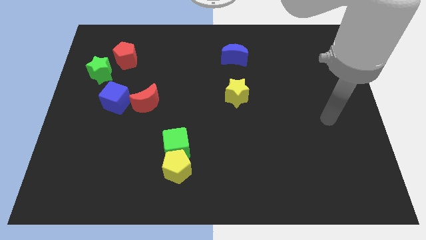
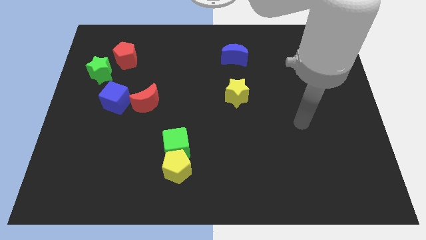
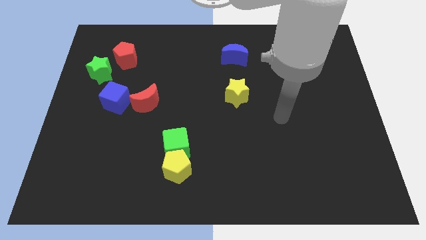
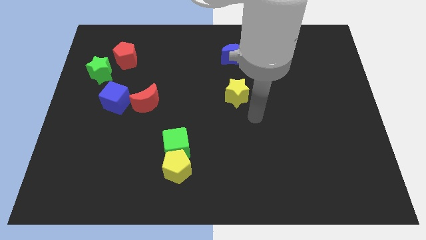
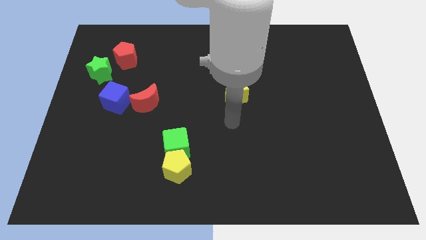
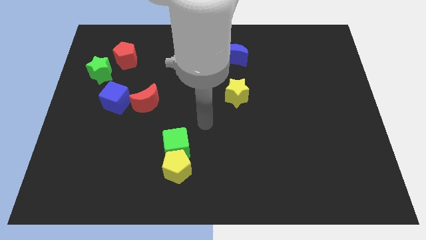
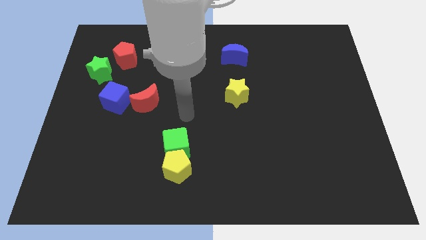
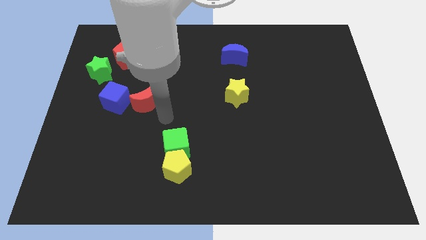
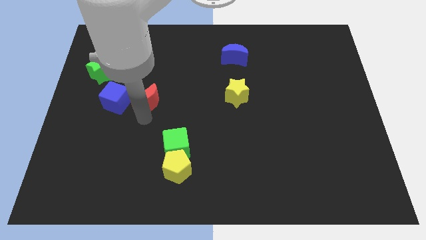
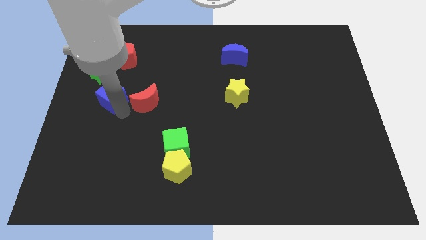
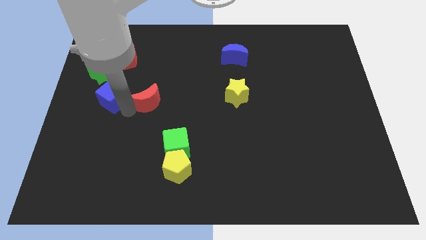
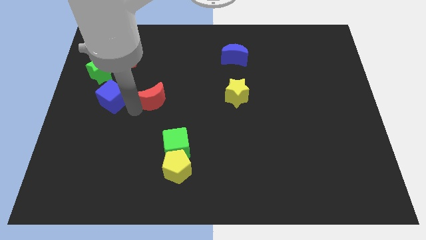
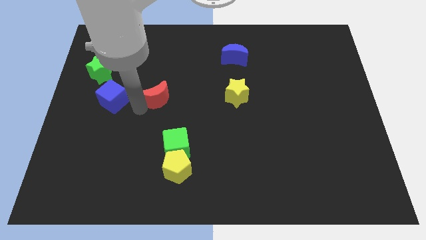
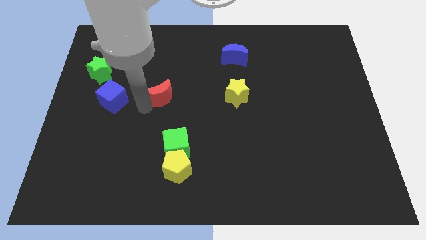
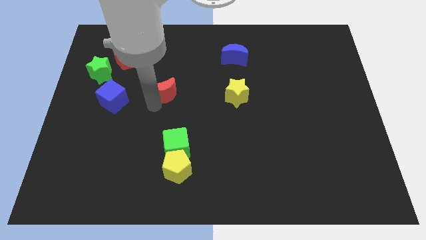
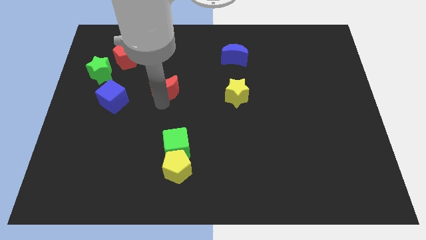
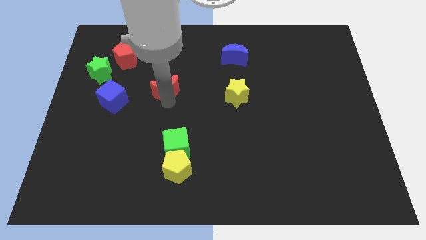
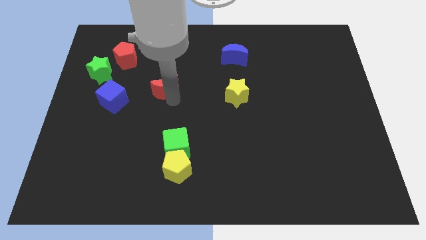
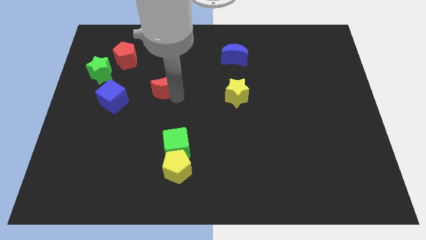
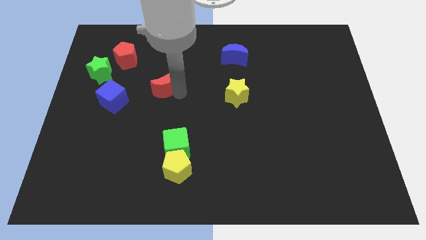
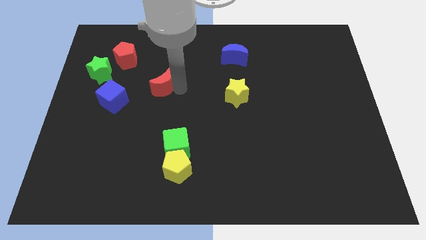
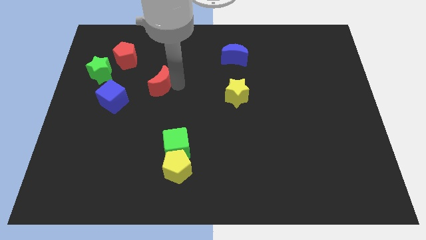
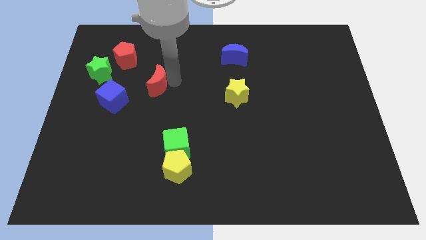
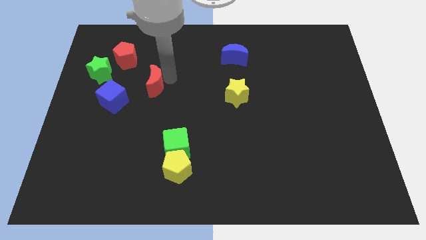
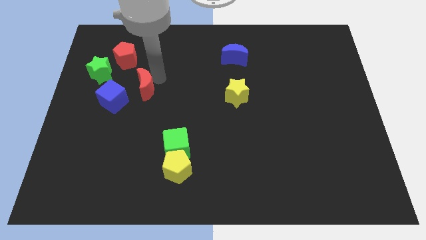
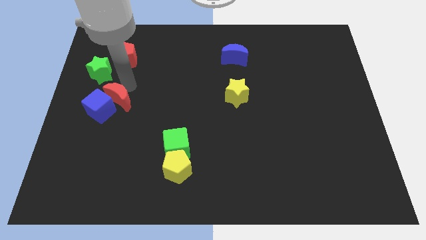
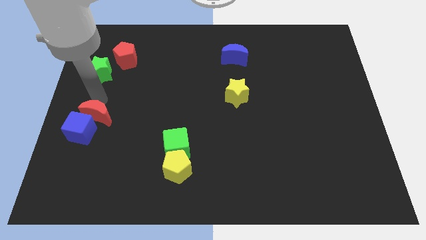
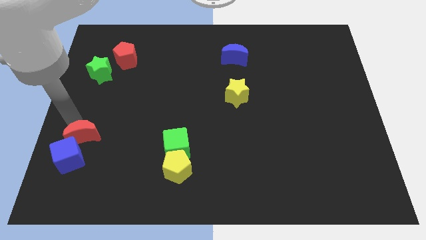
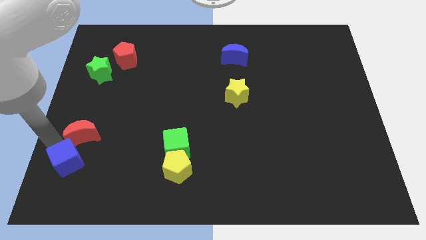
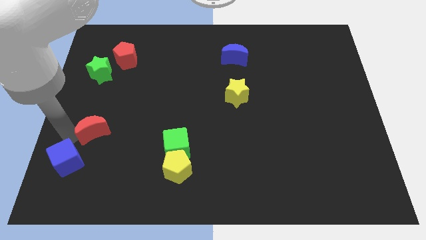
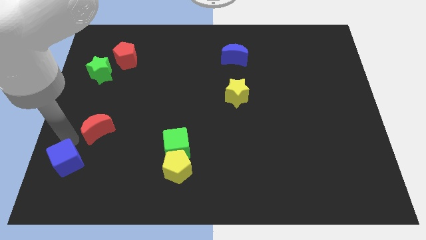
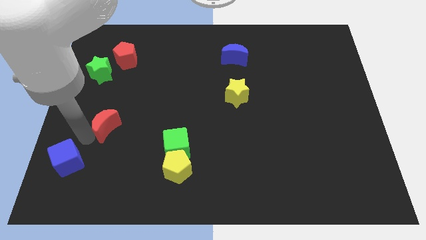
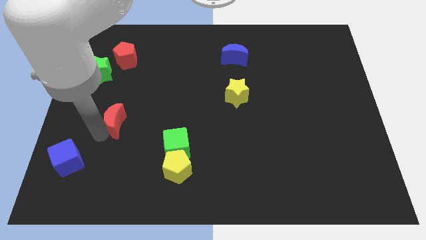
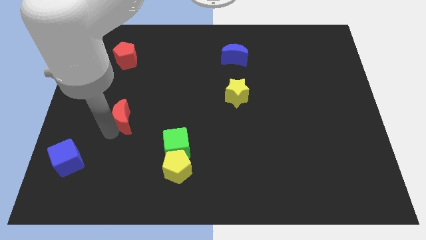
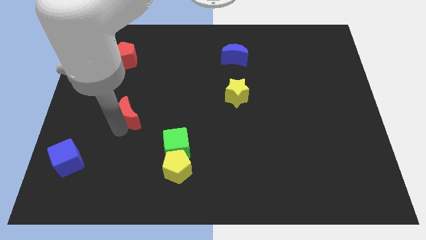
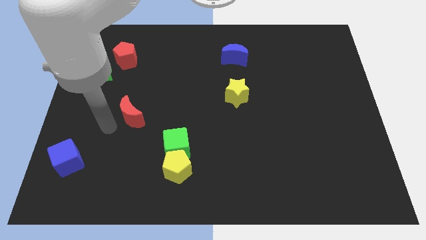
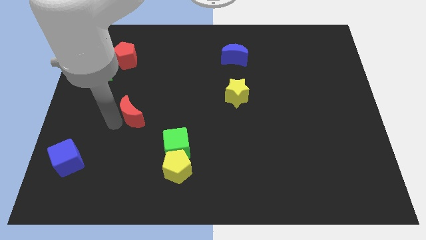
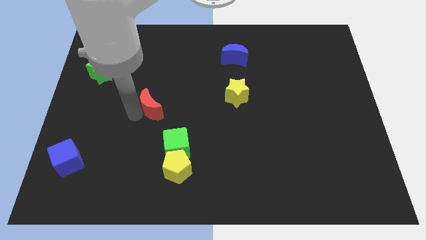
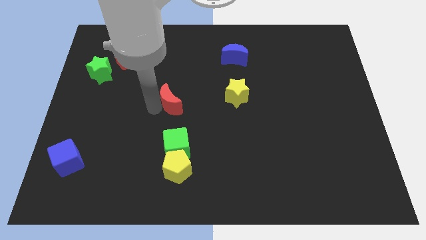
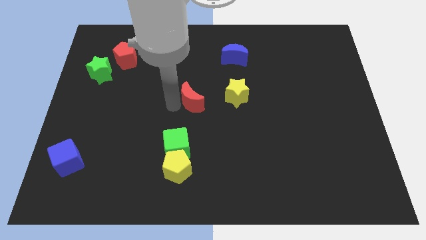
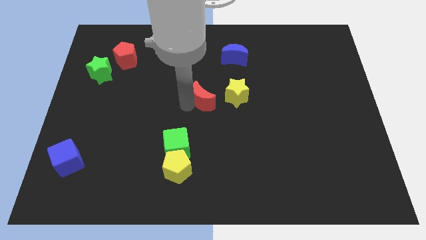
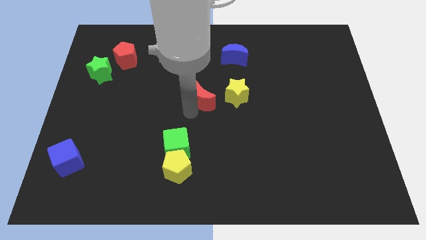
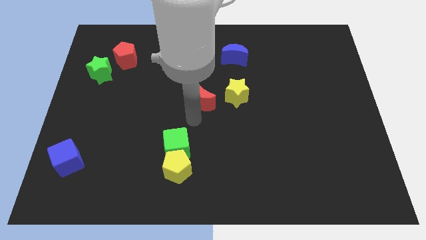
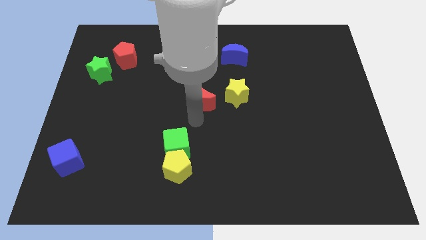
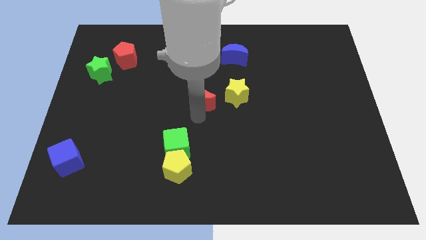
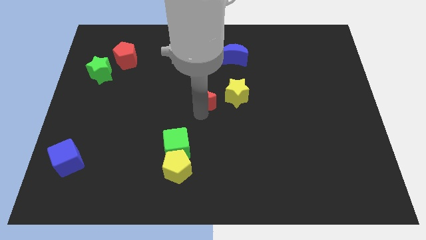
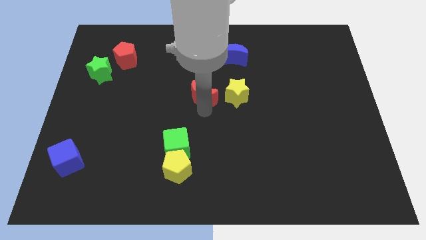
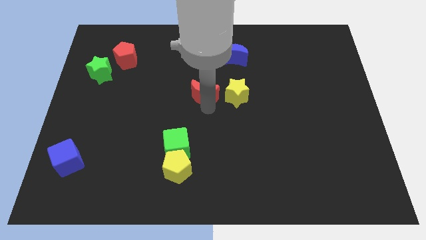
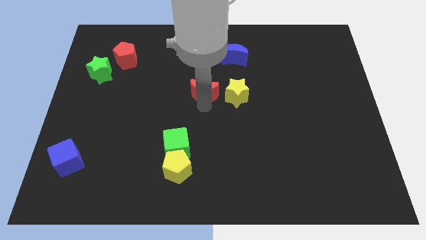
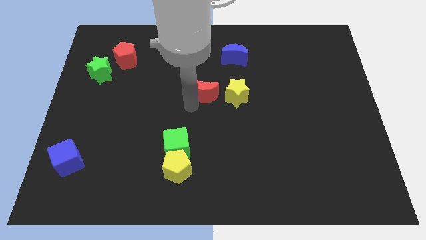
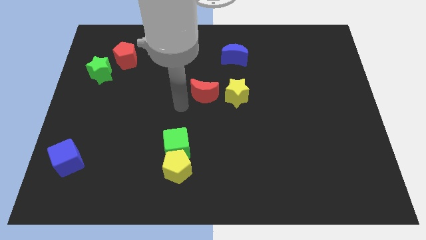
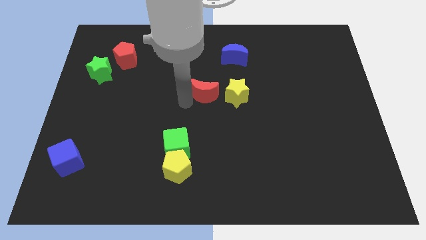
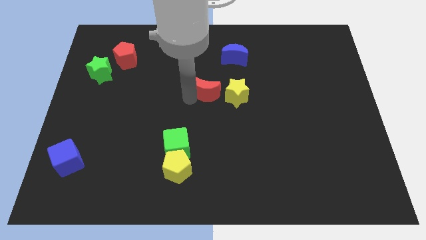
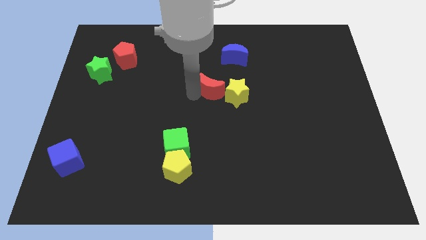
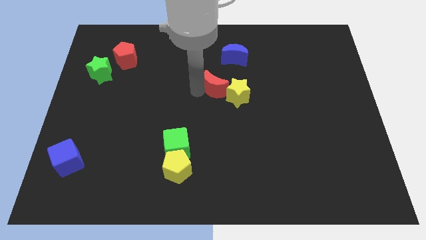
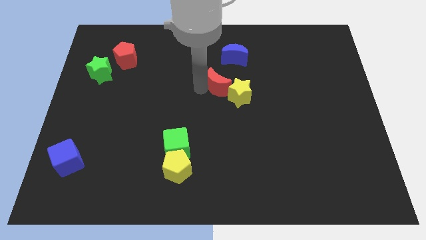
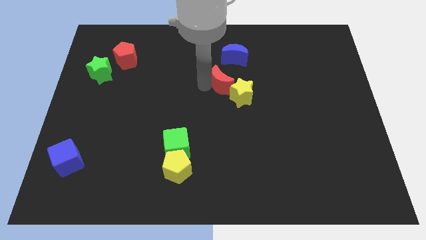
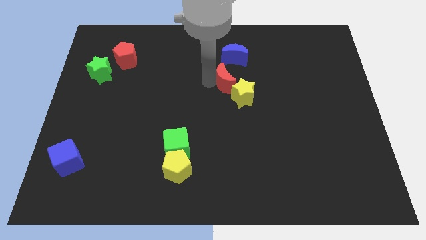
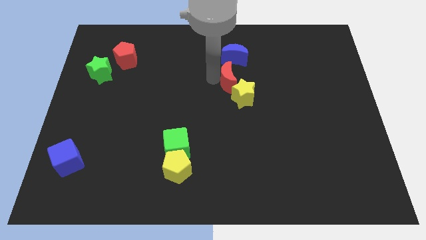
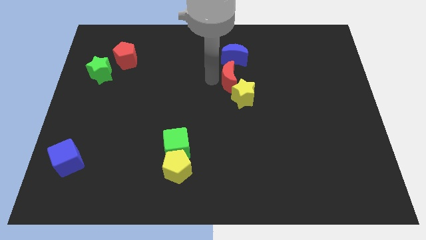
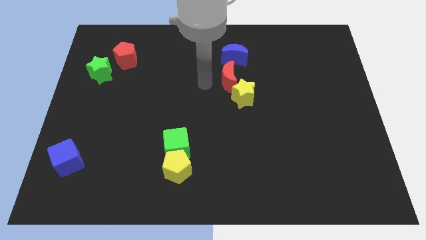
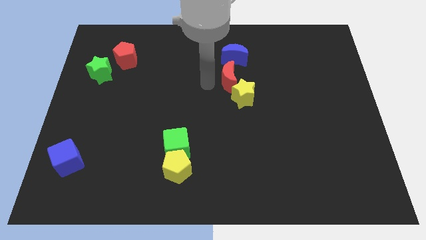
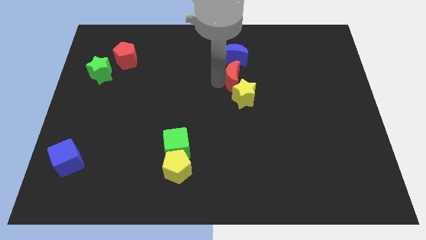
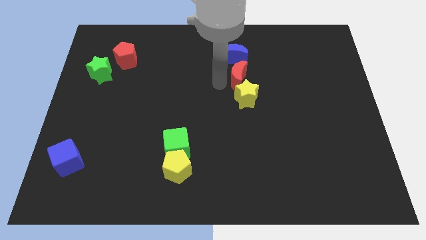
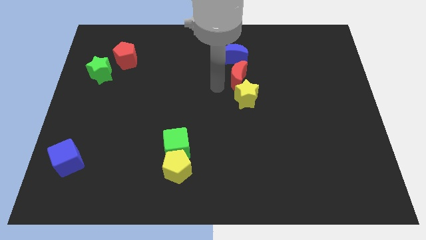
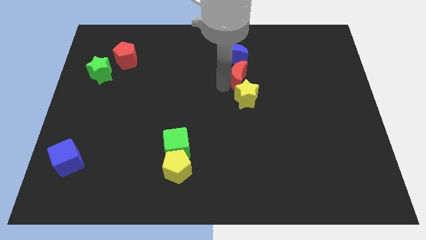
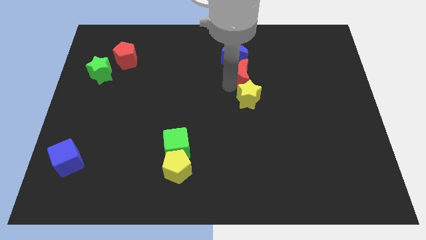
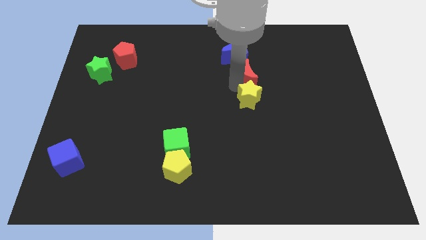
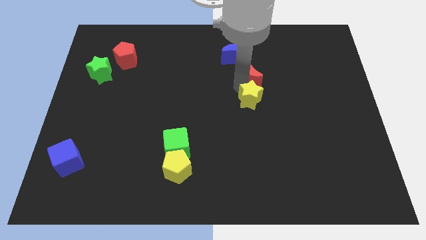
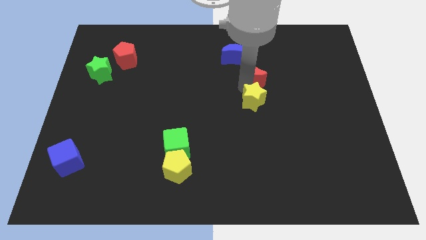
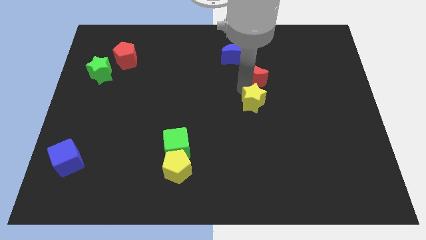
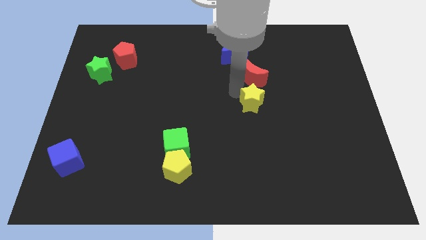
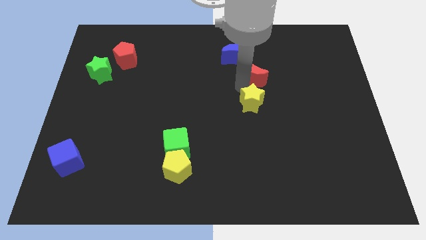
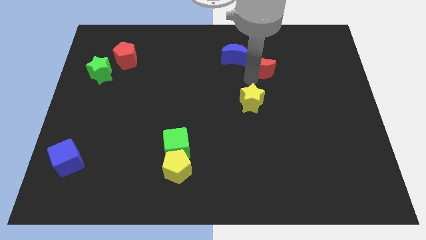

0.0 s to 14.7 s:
slide the red moon just right of the blue moon

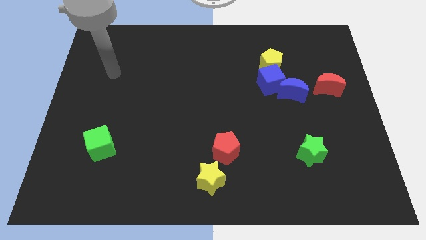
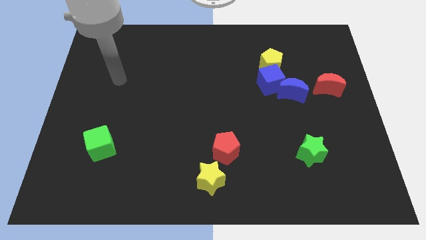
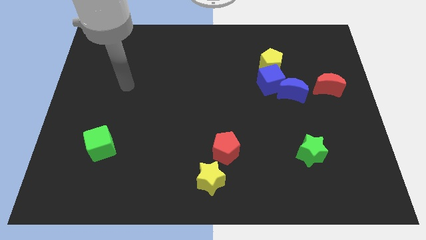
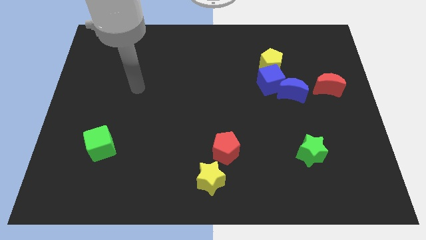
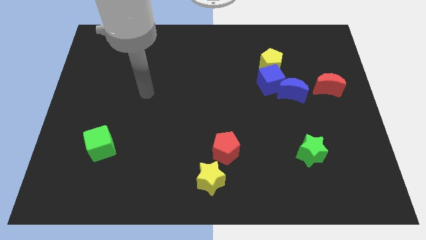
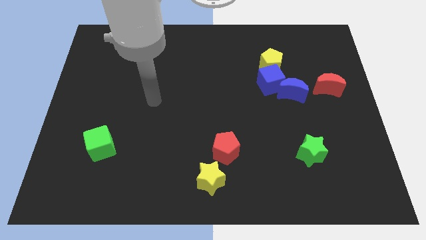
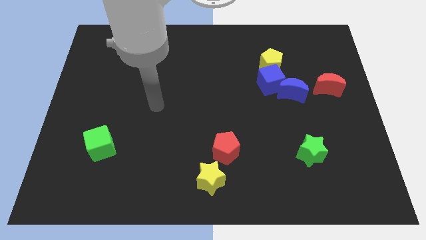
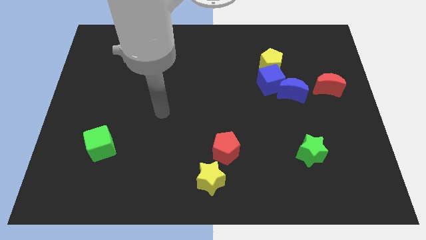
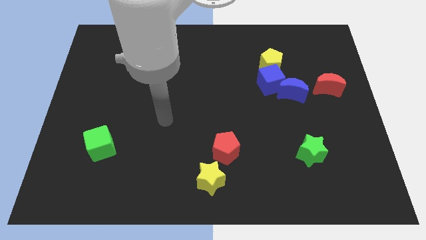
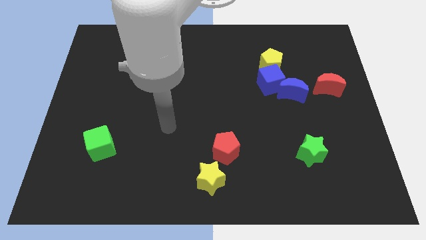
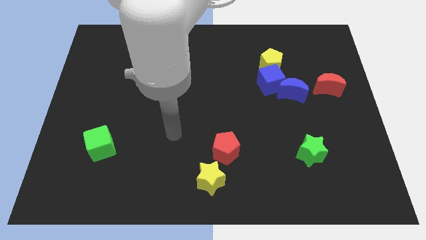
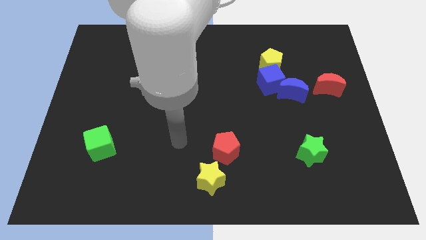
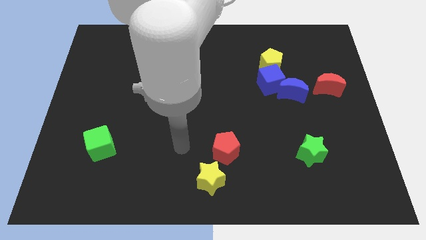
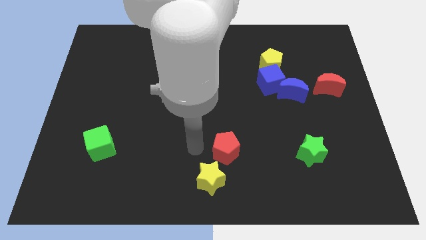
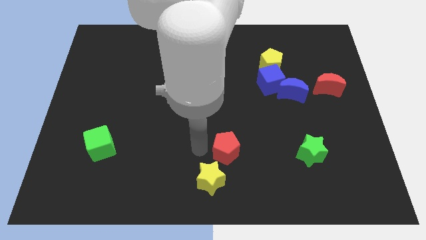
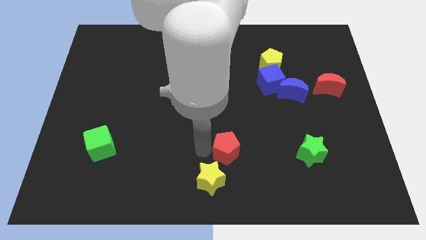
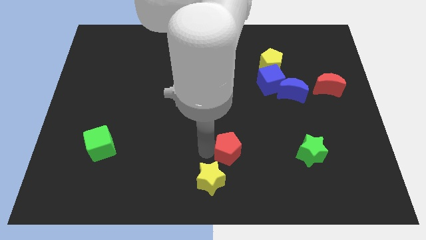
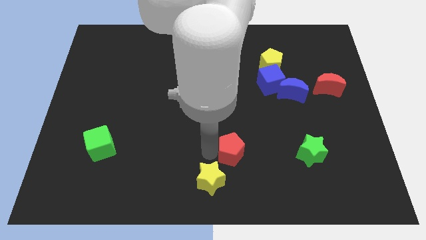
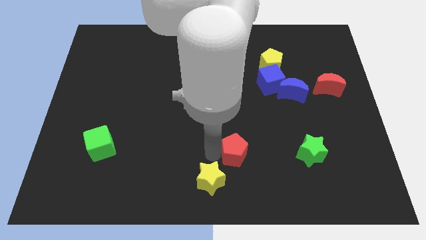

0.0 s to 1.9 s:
put the red pentagon left of the green star
